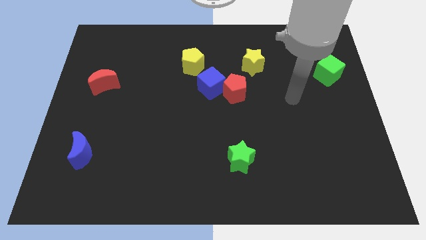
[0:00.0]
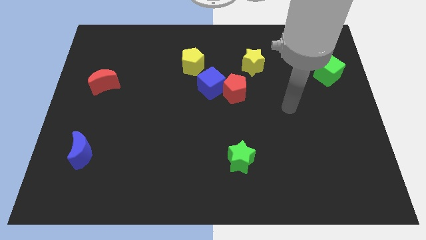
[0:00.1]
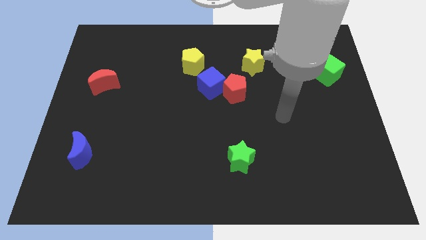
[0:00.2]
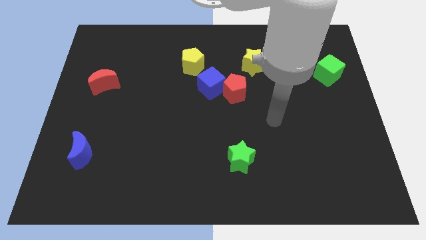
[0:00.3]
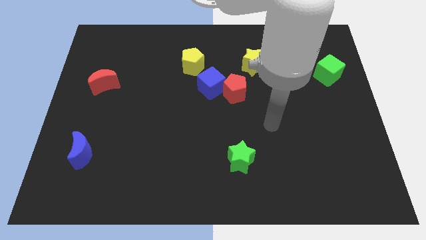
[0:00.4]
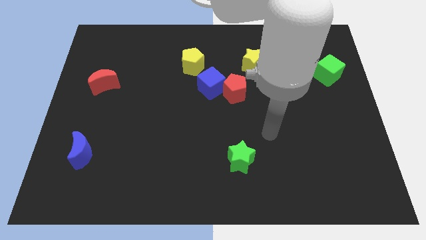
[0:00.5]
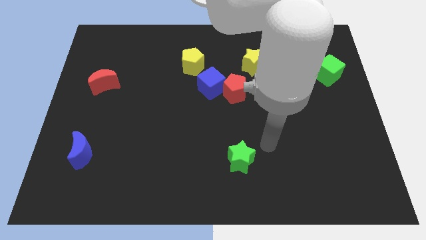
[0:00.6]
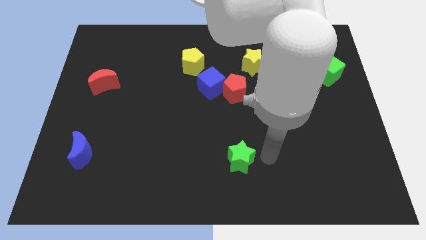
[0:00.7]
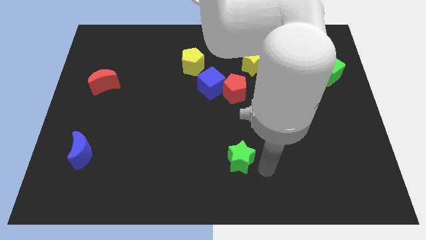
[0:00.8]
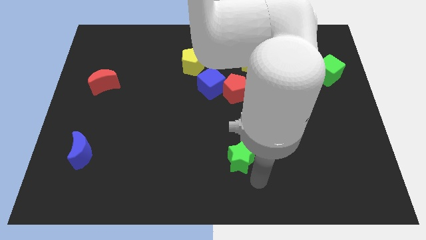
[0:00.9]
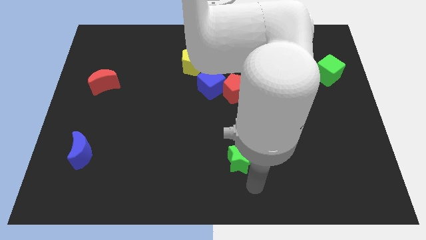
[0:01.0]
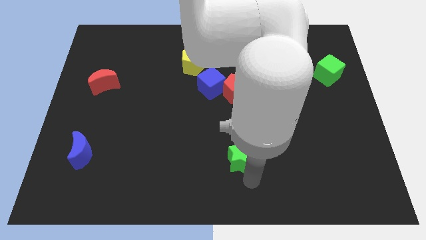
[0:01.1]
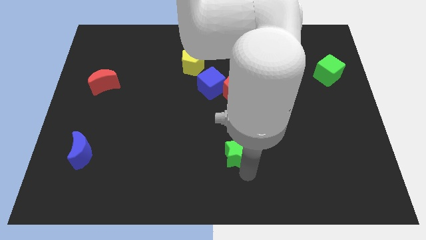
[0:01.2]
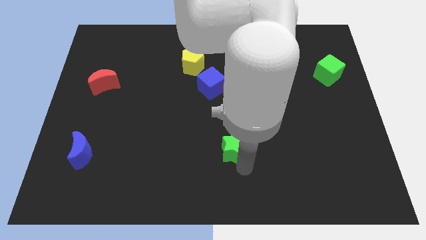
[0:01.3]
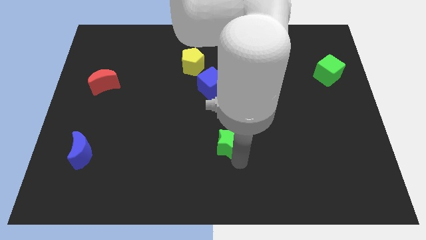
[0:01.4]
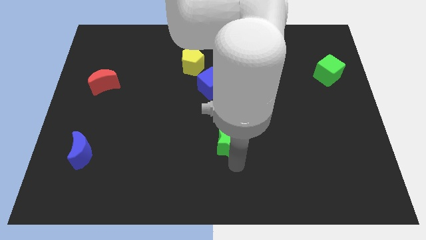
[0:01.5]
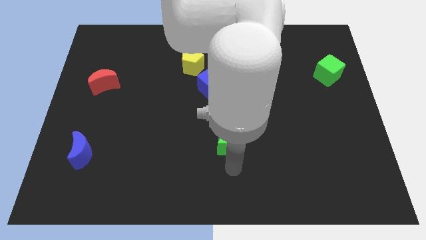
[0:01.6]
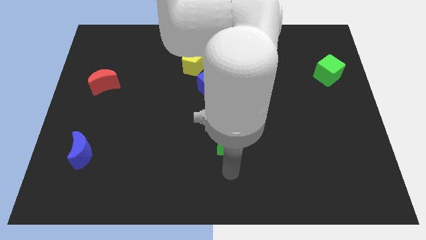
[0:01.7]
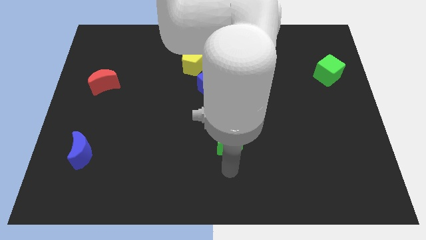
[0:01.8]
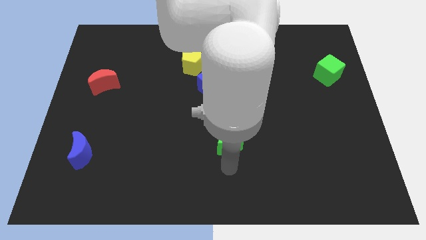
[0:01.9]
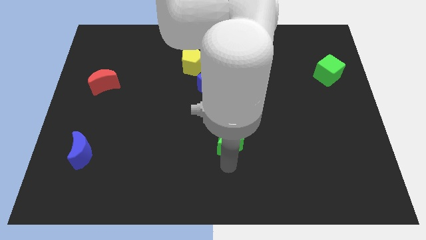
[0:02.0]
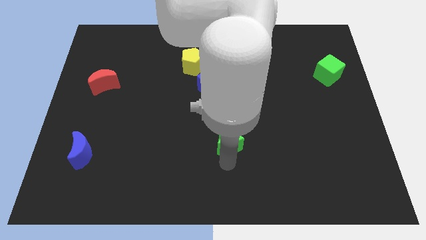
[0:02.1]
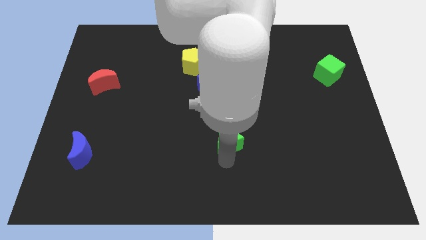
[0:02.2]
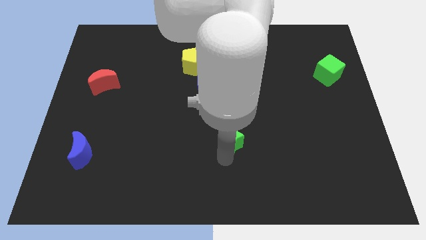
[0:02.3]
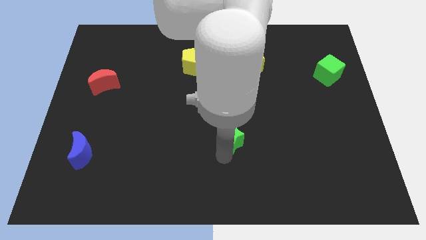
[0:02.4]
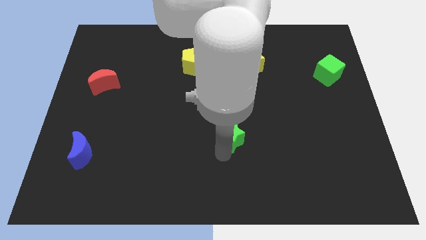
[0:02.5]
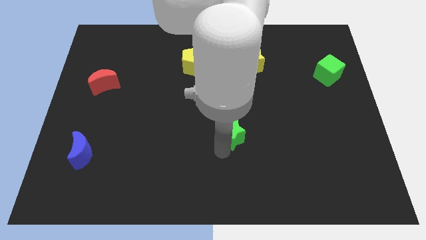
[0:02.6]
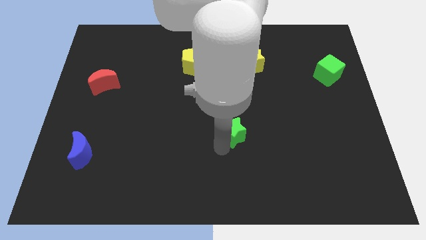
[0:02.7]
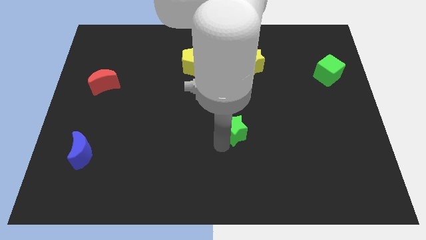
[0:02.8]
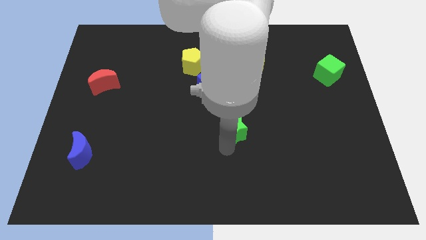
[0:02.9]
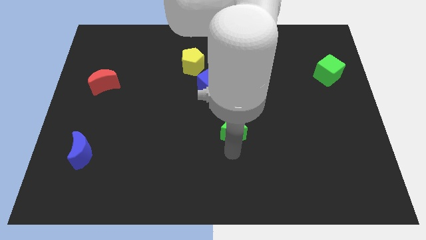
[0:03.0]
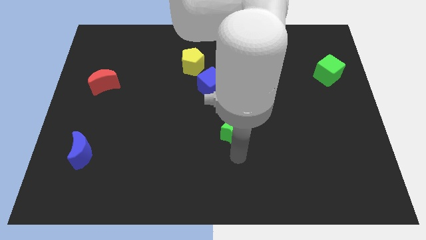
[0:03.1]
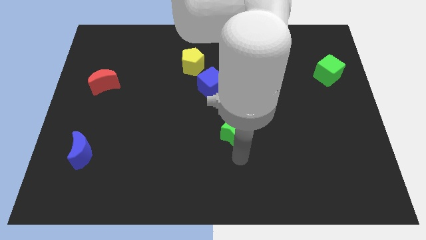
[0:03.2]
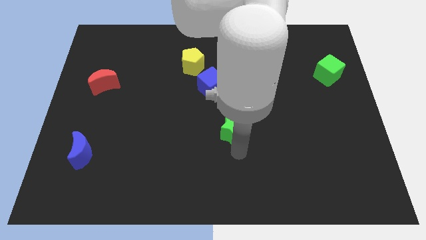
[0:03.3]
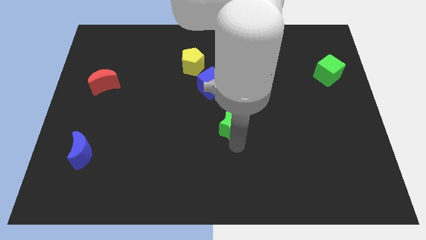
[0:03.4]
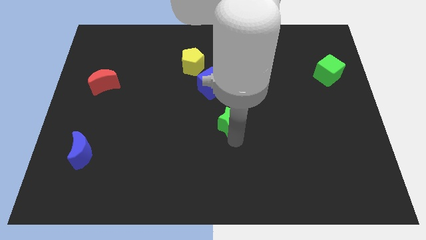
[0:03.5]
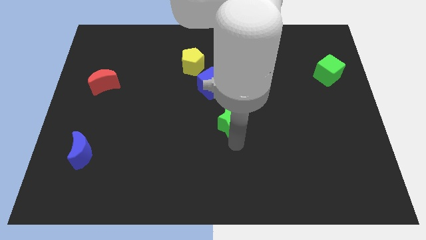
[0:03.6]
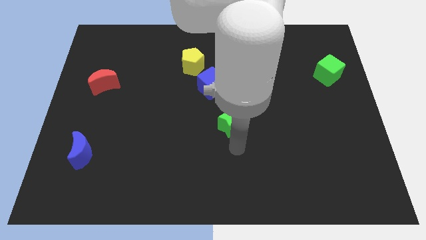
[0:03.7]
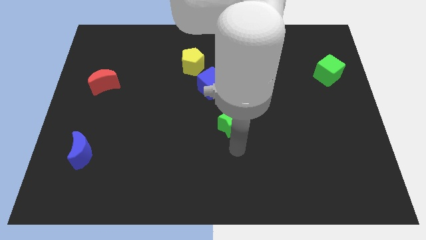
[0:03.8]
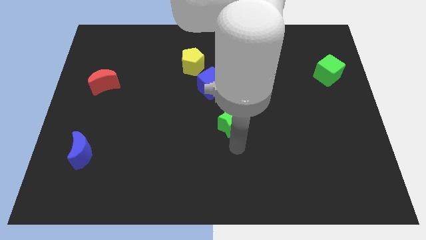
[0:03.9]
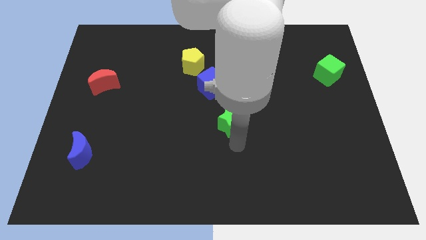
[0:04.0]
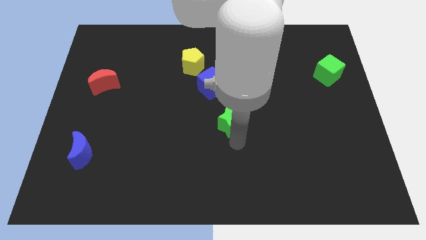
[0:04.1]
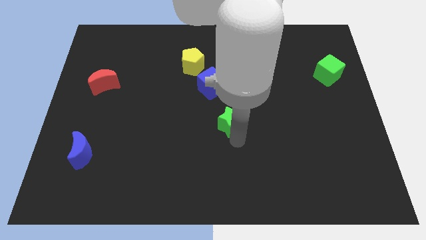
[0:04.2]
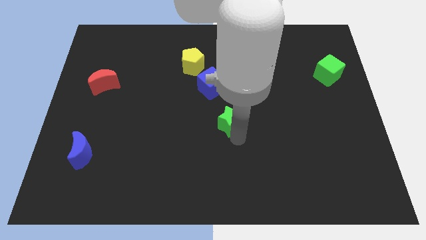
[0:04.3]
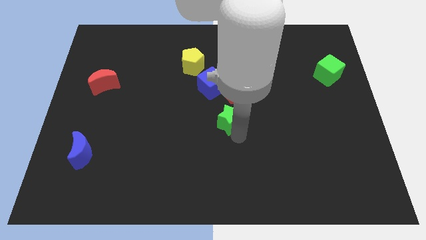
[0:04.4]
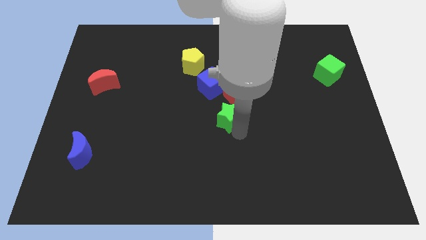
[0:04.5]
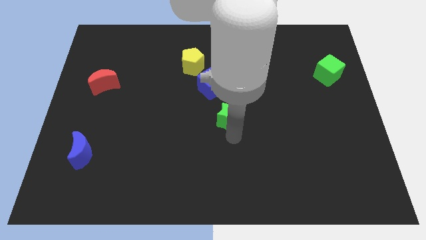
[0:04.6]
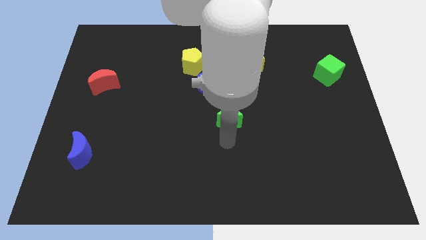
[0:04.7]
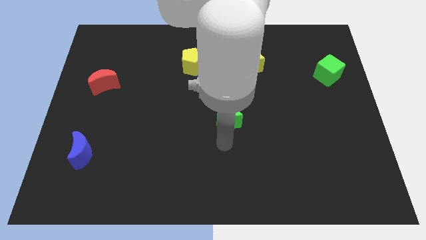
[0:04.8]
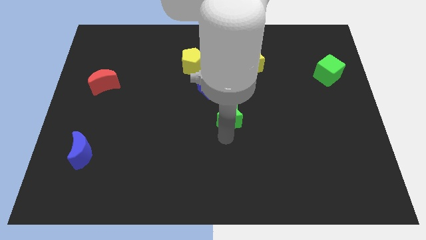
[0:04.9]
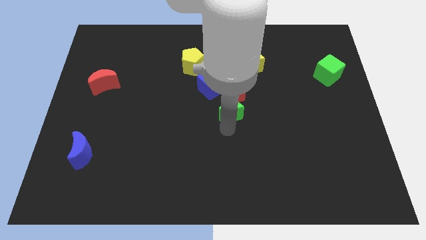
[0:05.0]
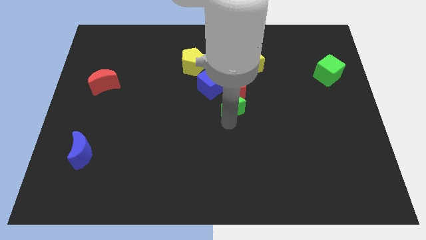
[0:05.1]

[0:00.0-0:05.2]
move the green star next to the red pentagon

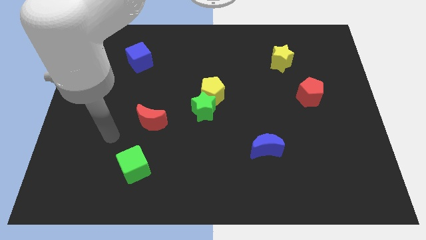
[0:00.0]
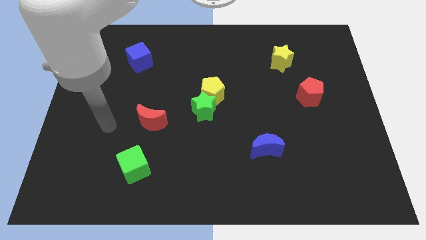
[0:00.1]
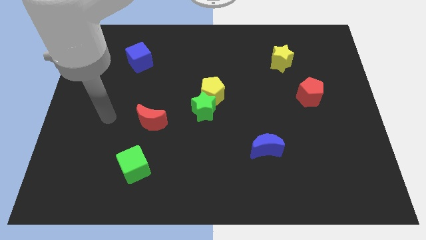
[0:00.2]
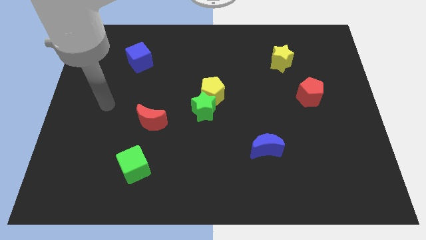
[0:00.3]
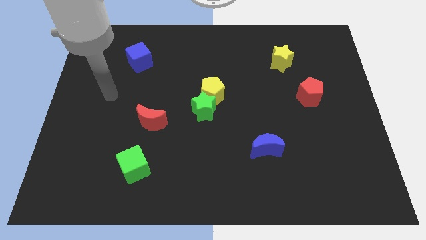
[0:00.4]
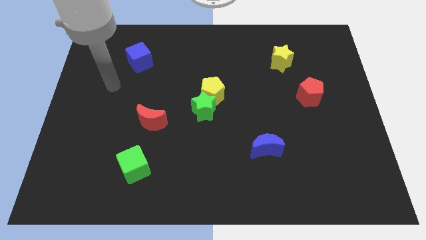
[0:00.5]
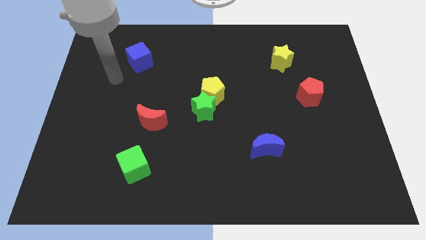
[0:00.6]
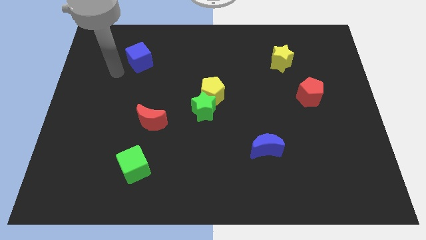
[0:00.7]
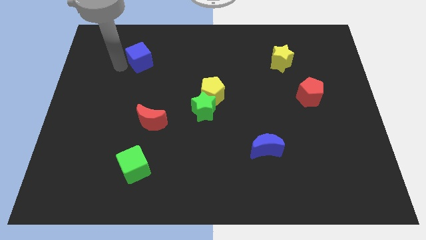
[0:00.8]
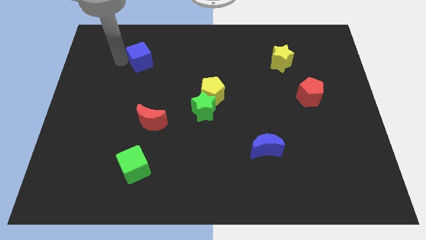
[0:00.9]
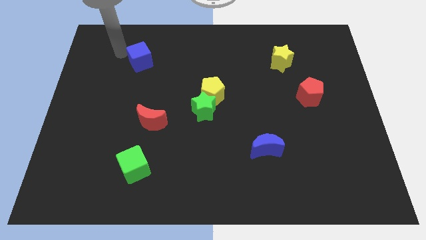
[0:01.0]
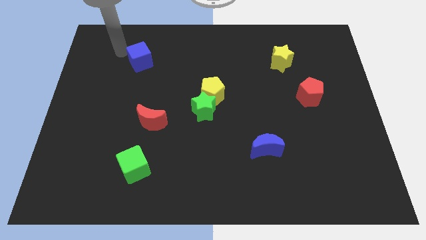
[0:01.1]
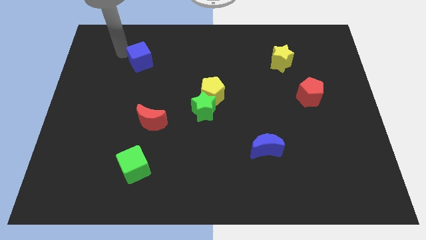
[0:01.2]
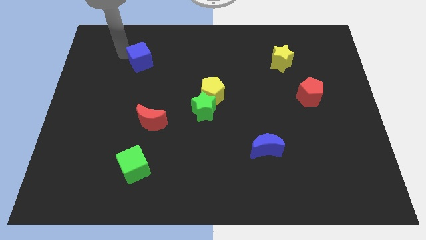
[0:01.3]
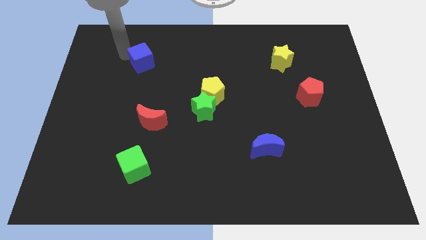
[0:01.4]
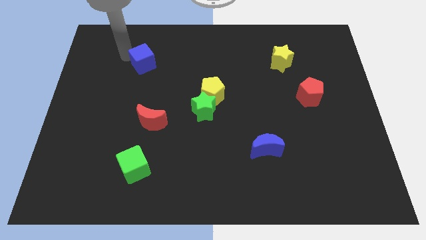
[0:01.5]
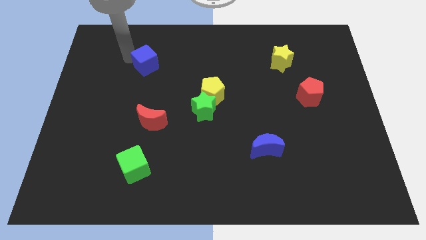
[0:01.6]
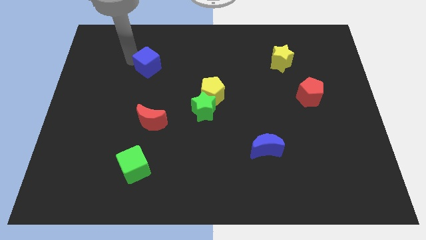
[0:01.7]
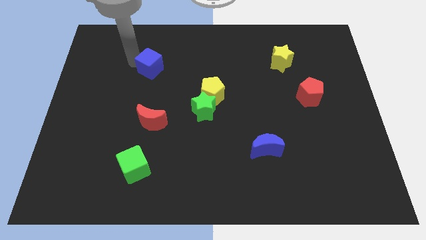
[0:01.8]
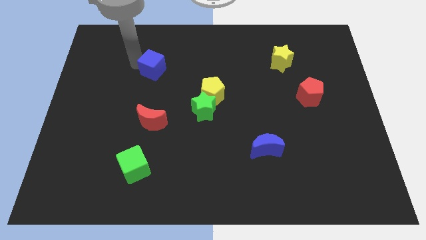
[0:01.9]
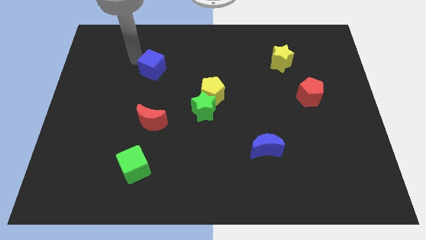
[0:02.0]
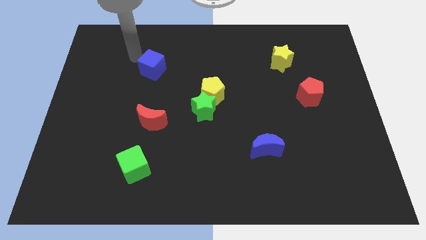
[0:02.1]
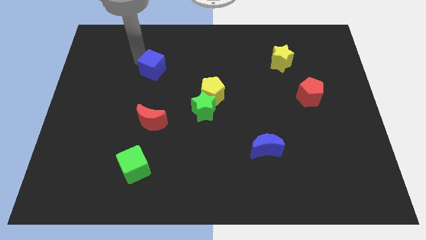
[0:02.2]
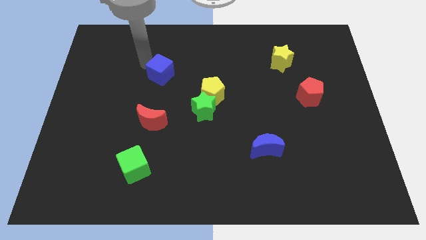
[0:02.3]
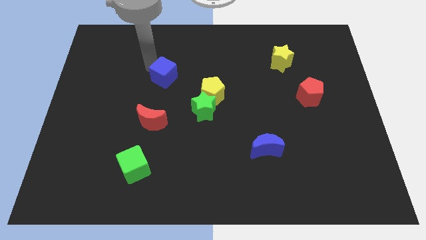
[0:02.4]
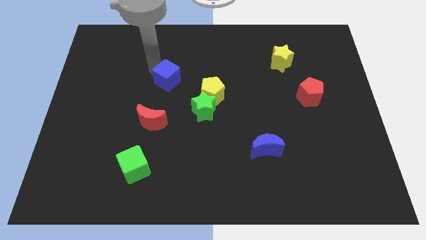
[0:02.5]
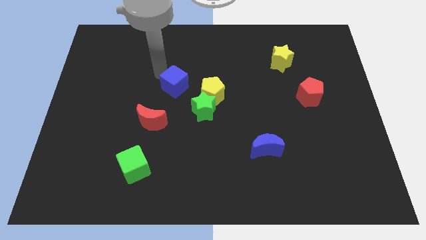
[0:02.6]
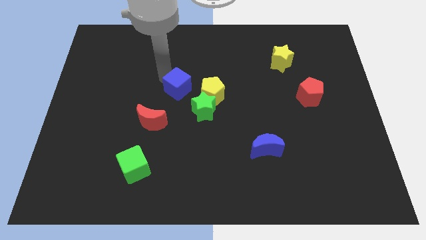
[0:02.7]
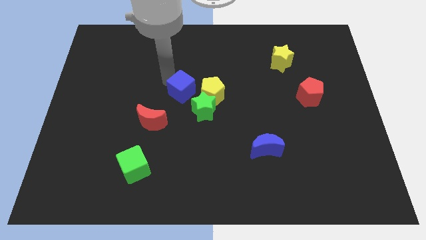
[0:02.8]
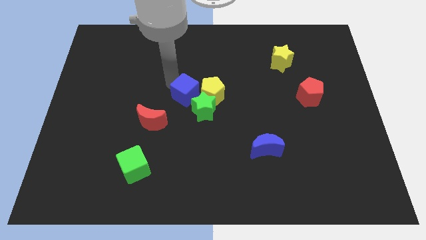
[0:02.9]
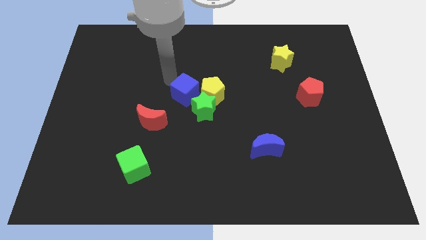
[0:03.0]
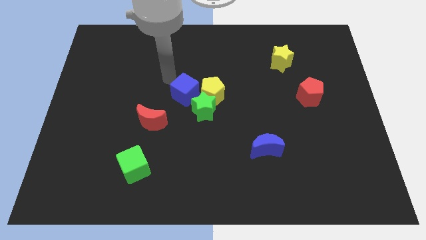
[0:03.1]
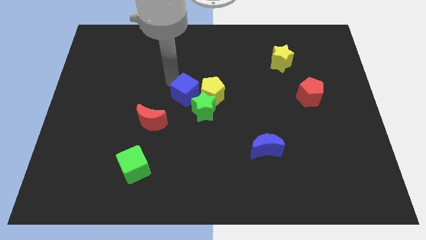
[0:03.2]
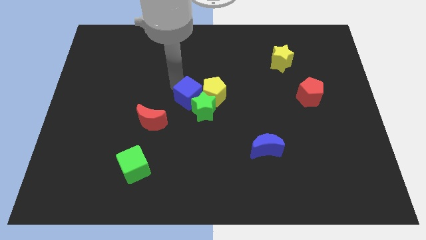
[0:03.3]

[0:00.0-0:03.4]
put the blue cube next to the green star
